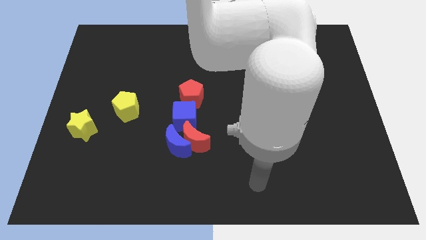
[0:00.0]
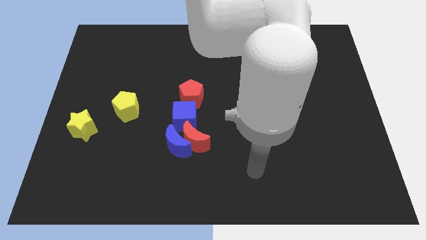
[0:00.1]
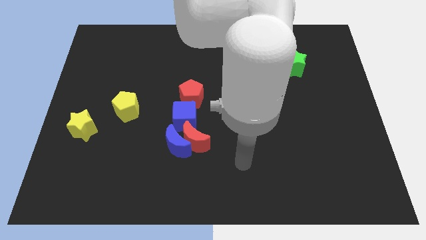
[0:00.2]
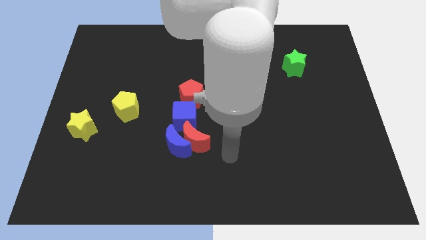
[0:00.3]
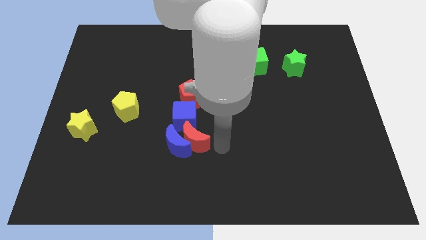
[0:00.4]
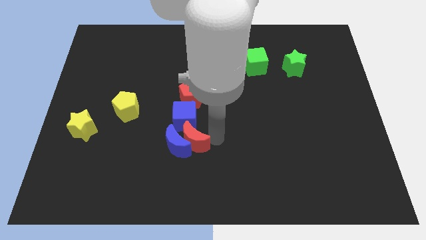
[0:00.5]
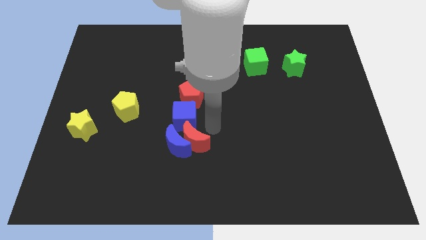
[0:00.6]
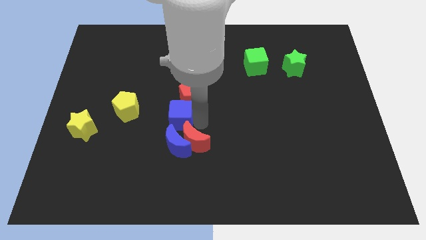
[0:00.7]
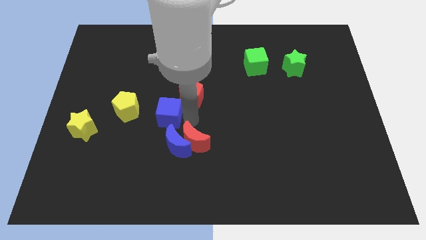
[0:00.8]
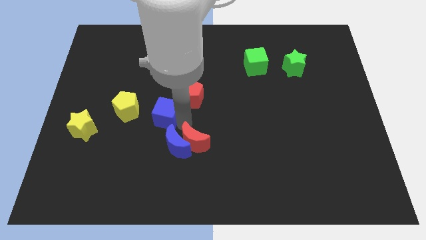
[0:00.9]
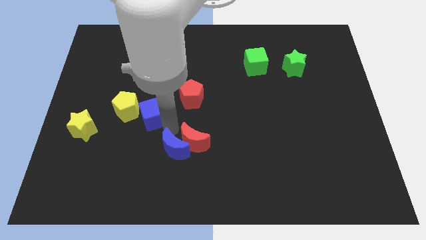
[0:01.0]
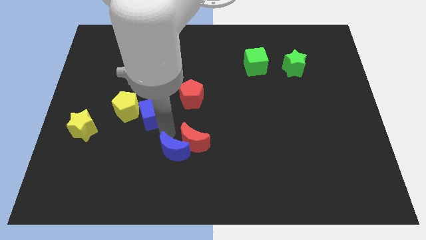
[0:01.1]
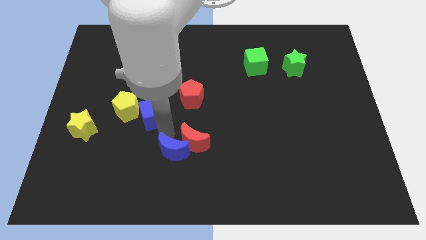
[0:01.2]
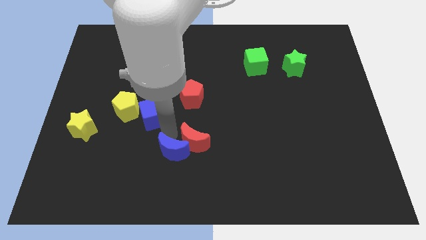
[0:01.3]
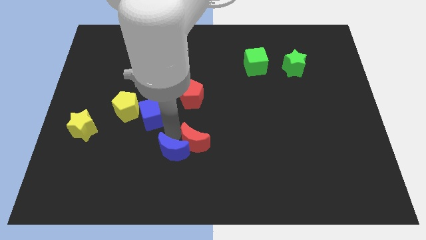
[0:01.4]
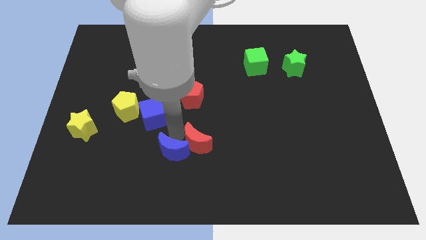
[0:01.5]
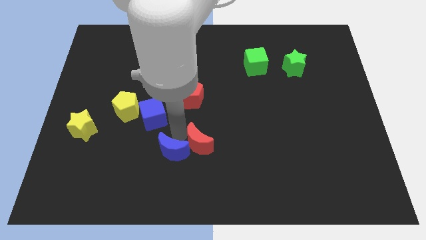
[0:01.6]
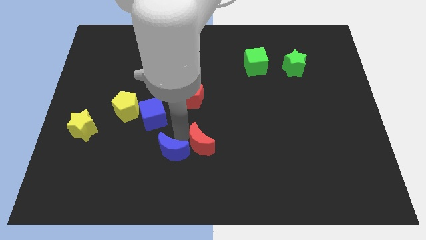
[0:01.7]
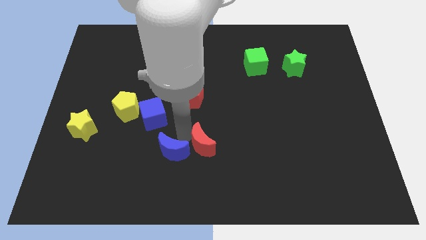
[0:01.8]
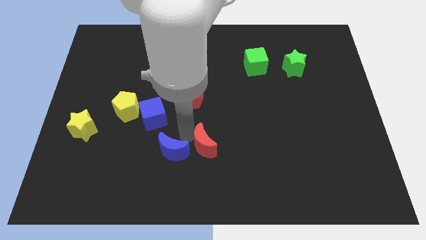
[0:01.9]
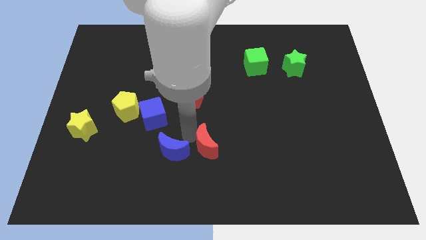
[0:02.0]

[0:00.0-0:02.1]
pull the red moon apart from the blue moon and blue cube

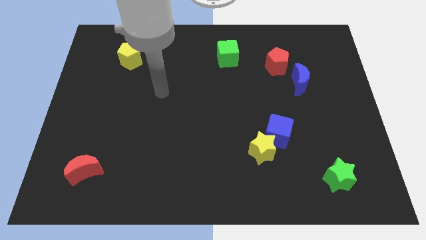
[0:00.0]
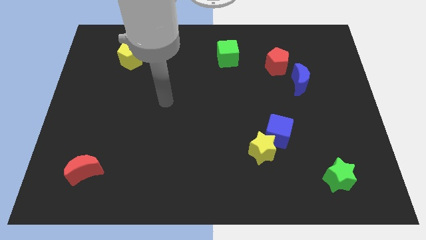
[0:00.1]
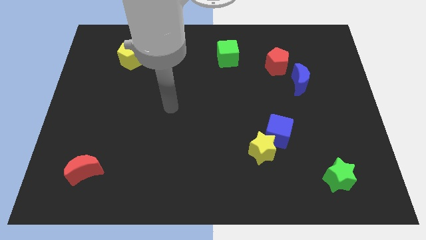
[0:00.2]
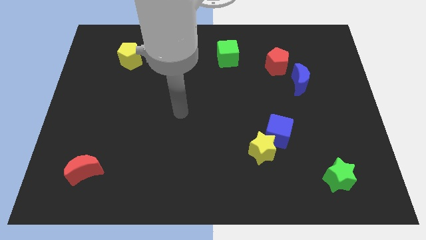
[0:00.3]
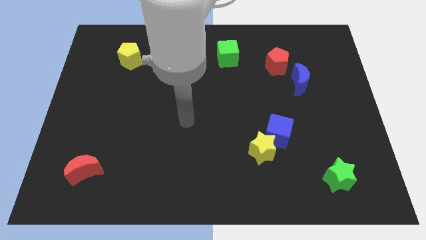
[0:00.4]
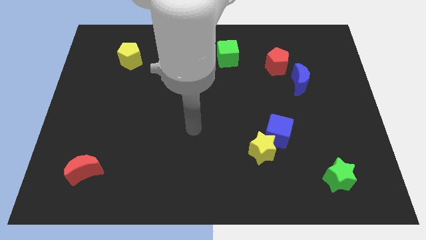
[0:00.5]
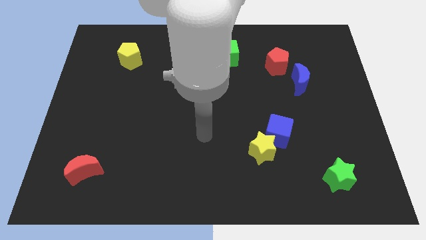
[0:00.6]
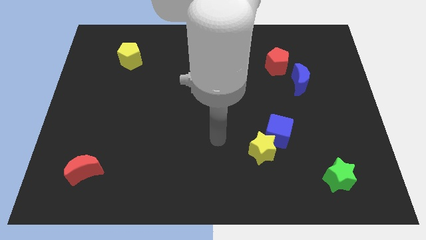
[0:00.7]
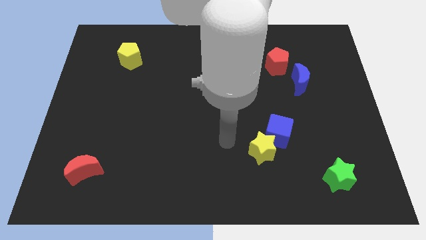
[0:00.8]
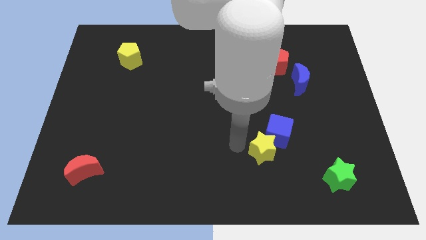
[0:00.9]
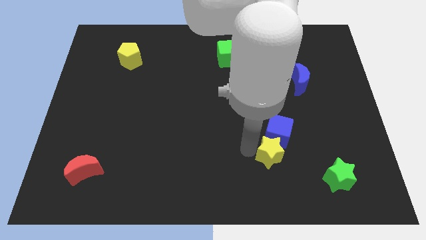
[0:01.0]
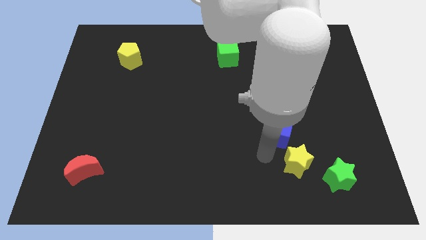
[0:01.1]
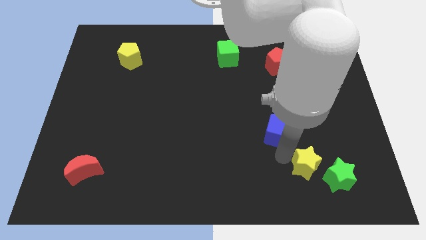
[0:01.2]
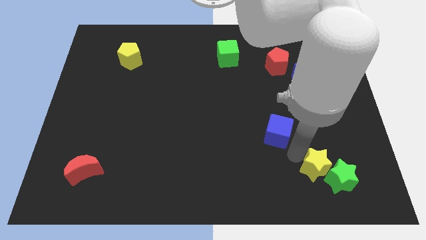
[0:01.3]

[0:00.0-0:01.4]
separate the blue cube from the yellow star

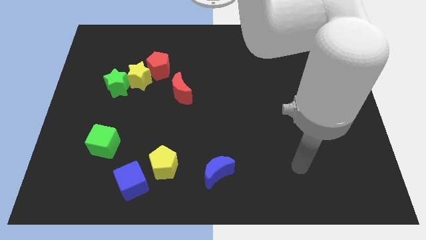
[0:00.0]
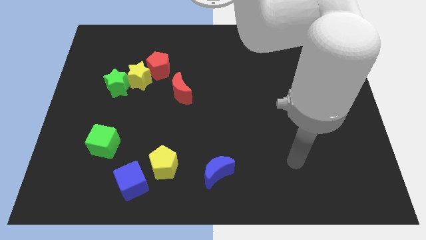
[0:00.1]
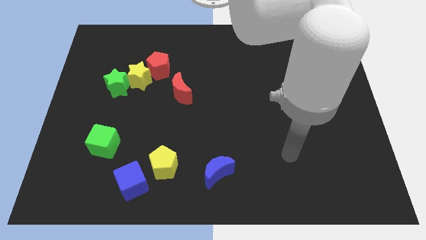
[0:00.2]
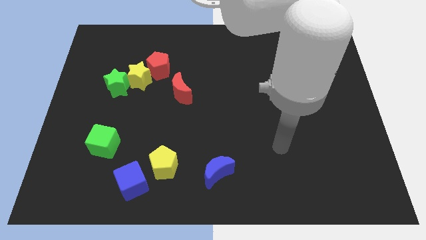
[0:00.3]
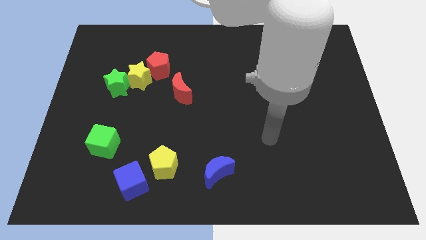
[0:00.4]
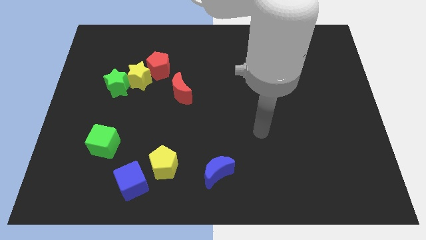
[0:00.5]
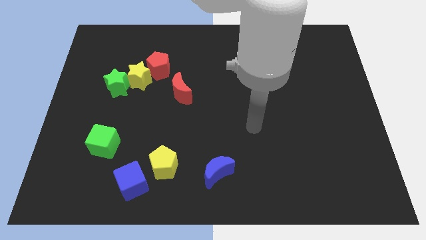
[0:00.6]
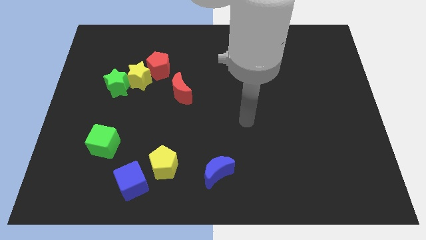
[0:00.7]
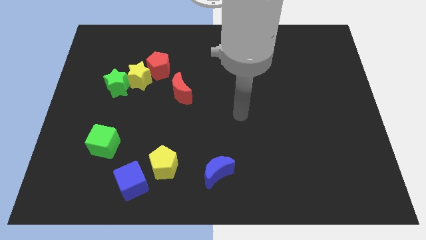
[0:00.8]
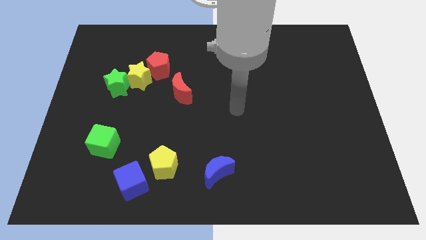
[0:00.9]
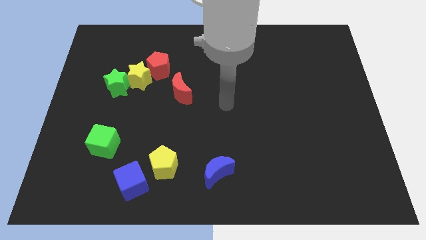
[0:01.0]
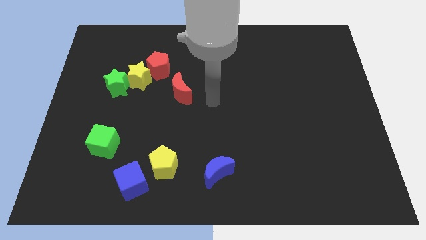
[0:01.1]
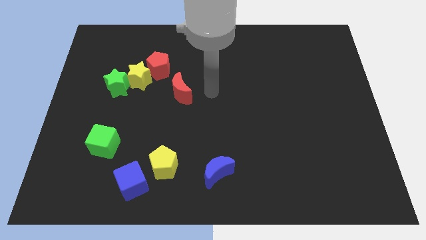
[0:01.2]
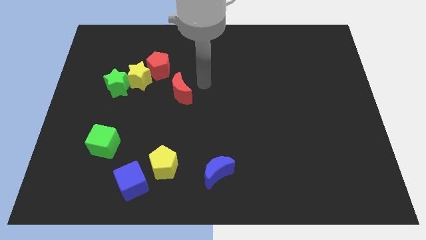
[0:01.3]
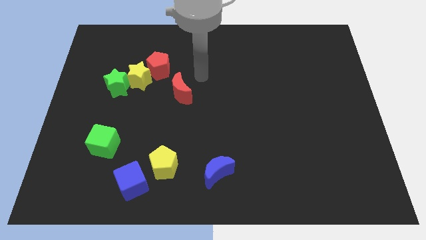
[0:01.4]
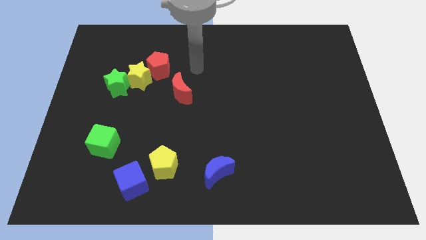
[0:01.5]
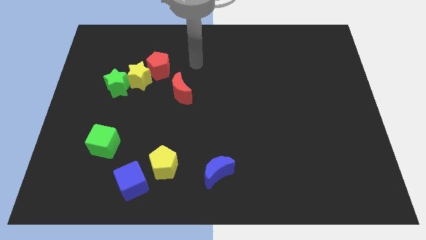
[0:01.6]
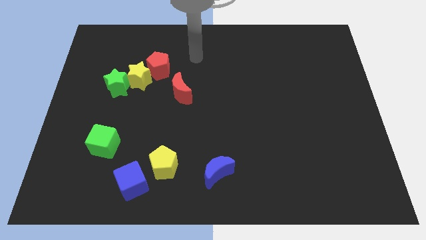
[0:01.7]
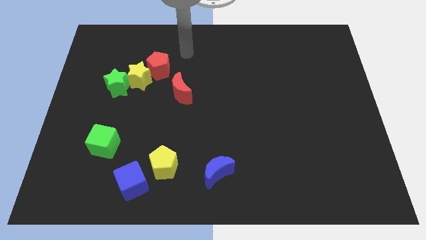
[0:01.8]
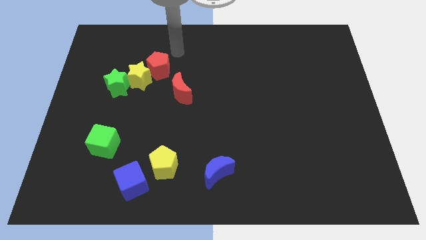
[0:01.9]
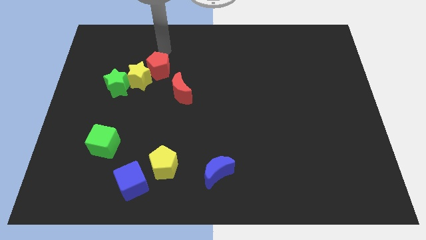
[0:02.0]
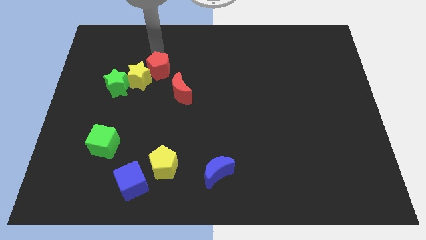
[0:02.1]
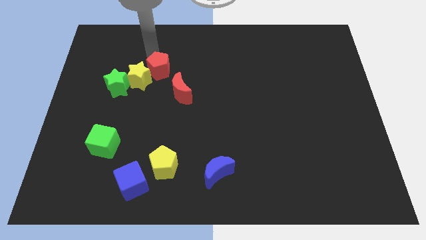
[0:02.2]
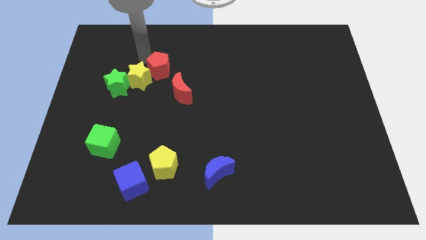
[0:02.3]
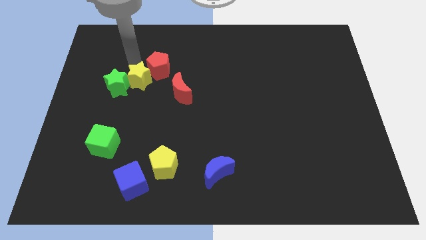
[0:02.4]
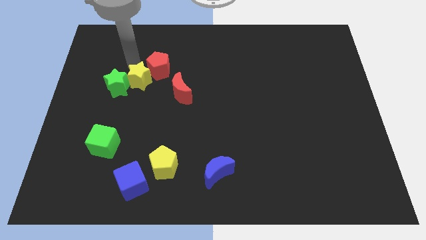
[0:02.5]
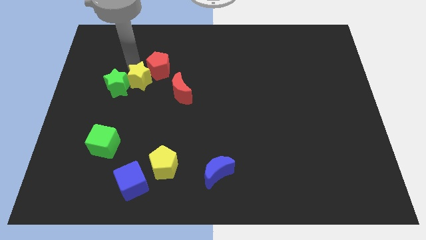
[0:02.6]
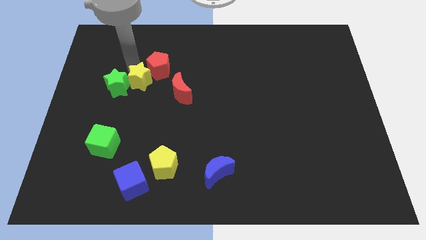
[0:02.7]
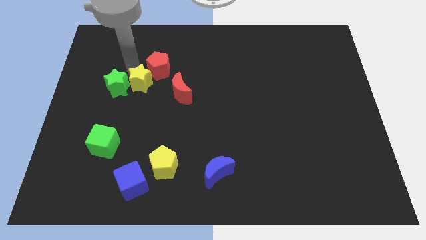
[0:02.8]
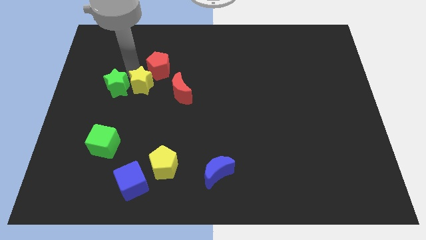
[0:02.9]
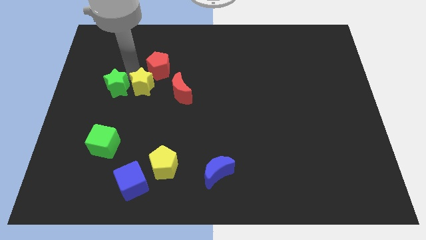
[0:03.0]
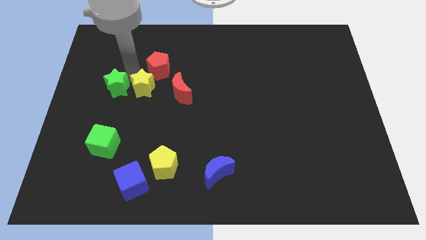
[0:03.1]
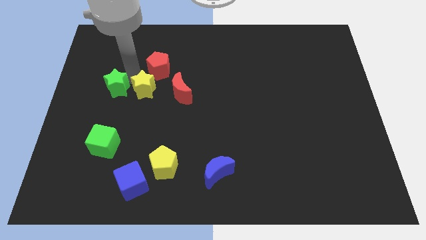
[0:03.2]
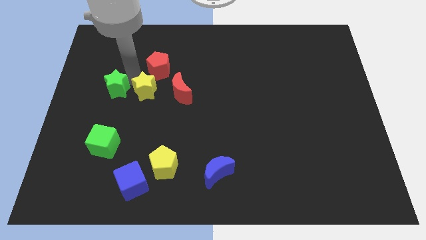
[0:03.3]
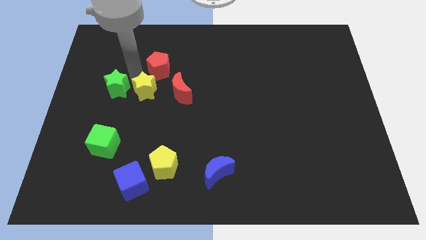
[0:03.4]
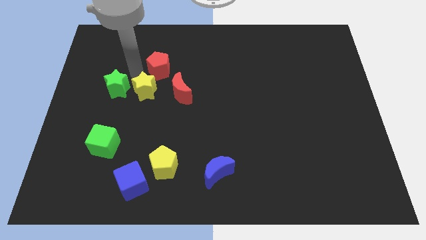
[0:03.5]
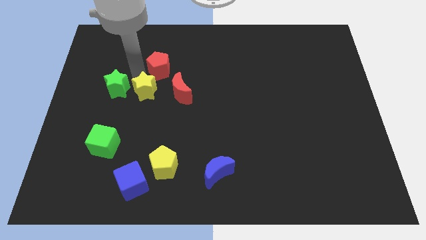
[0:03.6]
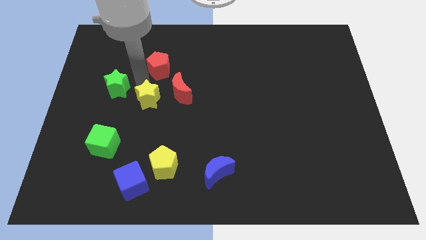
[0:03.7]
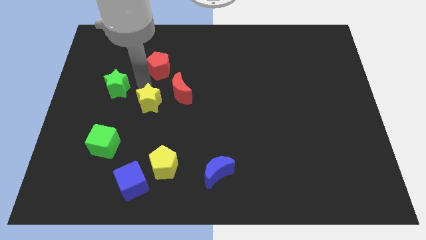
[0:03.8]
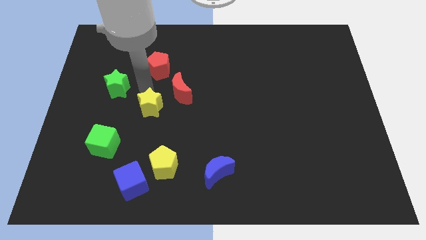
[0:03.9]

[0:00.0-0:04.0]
separate the yellow star from the red pentagon and green star

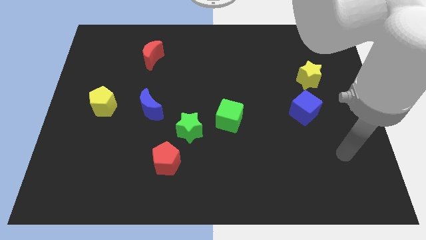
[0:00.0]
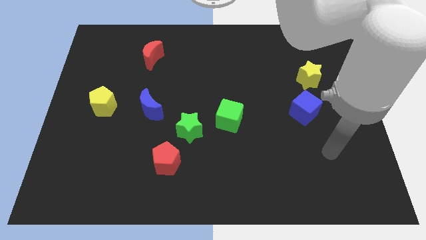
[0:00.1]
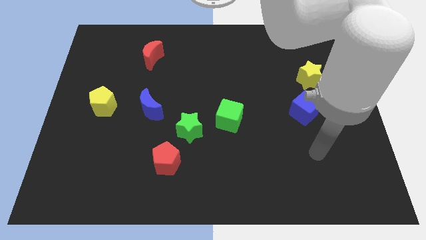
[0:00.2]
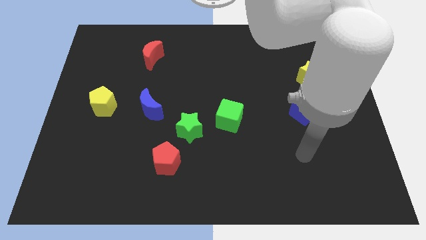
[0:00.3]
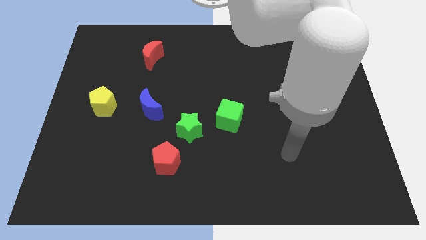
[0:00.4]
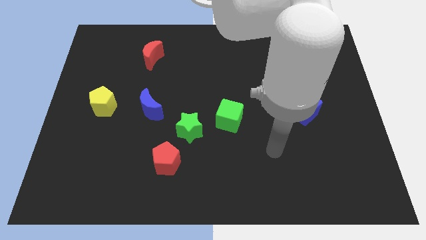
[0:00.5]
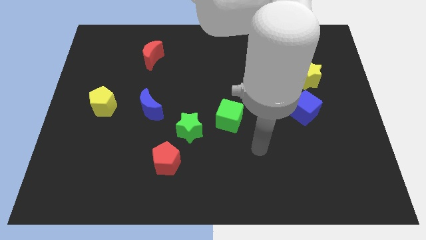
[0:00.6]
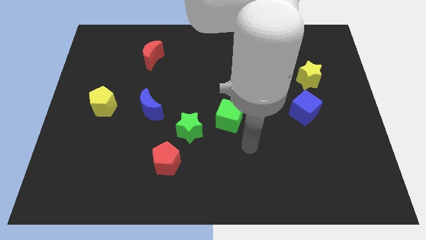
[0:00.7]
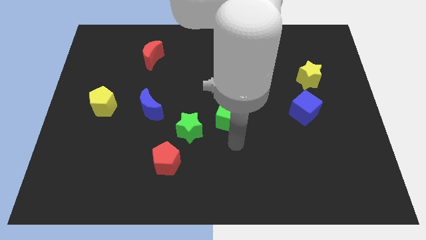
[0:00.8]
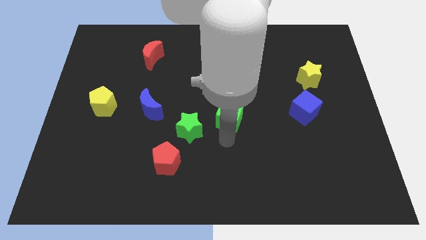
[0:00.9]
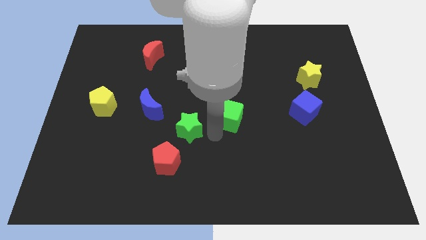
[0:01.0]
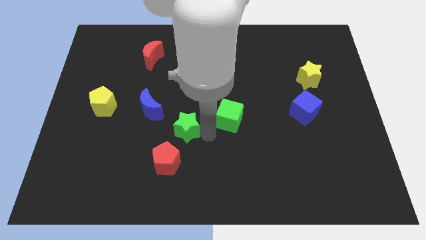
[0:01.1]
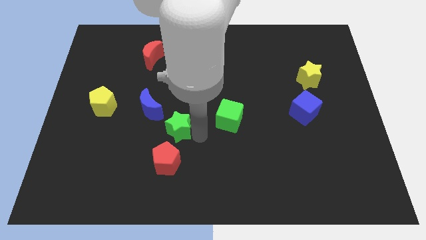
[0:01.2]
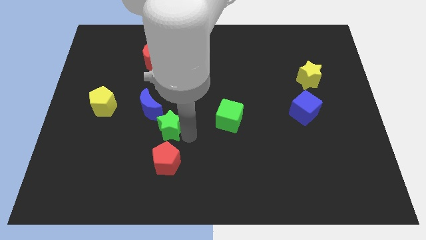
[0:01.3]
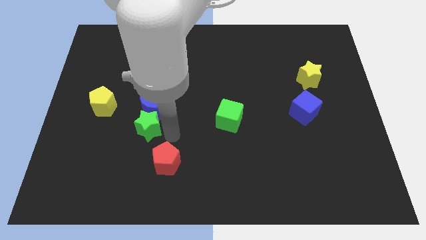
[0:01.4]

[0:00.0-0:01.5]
pull the red pentagon apart from the green star

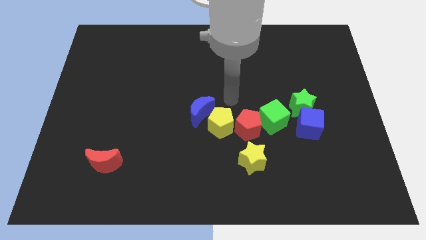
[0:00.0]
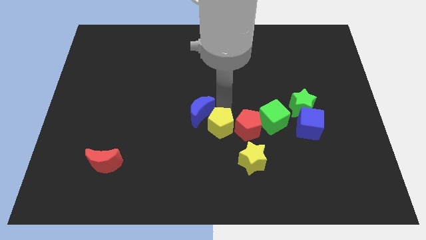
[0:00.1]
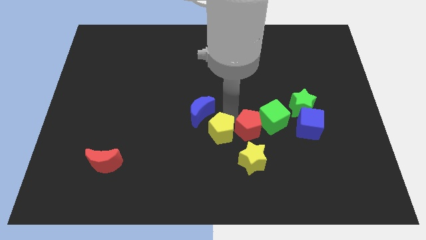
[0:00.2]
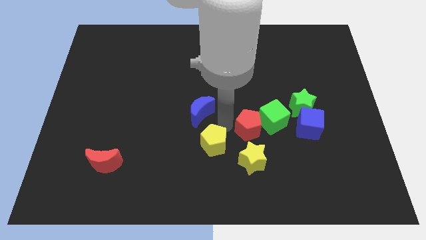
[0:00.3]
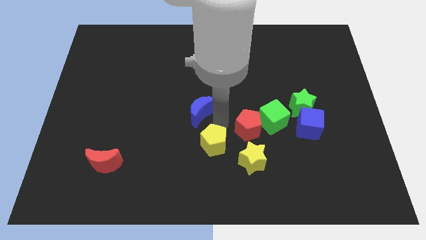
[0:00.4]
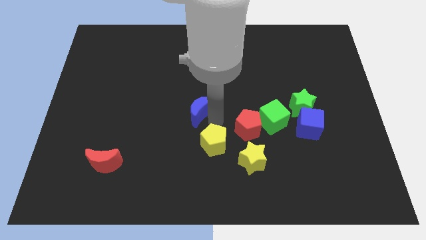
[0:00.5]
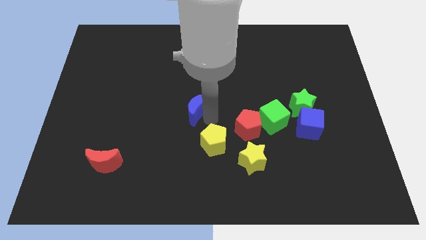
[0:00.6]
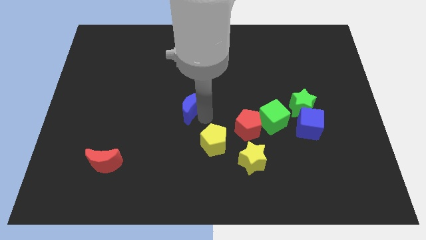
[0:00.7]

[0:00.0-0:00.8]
separate the blue moon from the yellow pentagon
